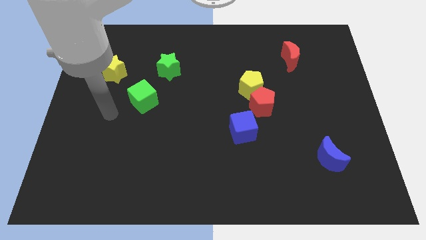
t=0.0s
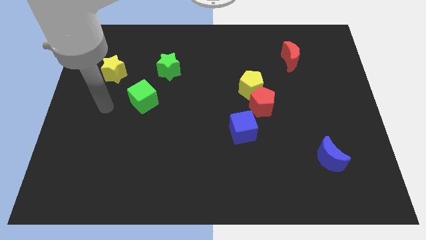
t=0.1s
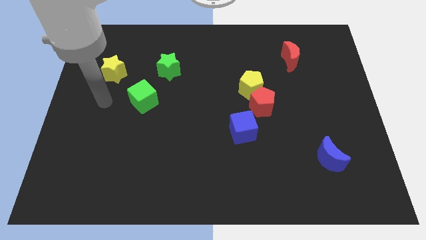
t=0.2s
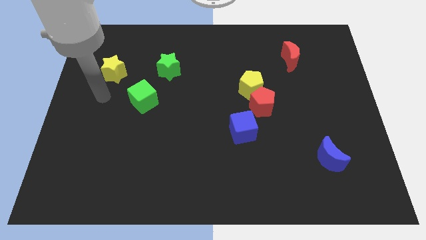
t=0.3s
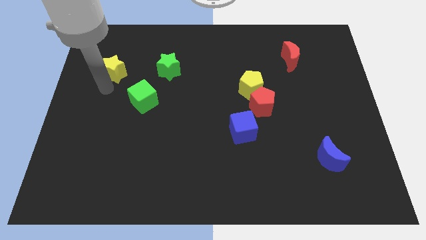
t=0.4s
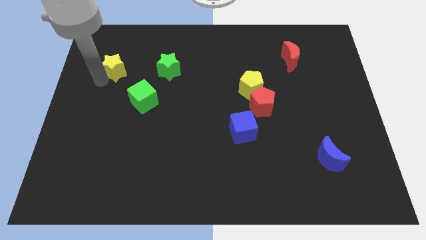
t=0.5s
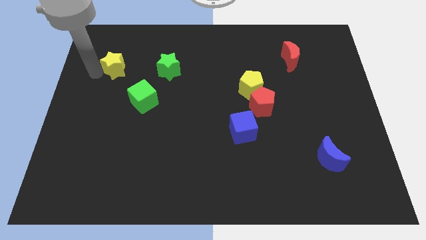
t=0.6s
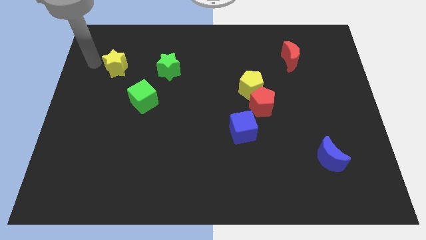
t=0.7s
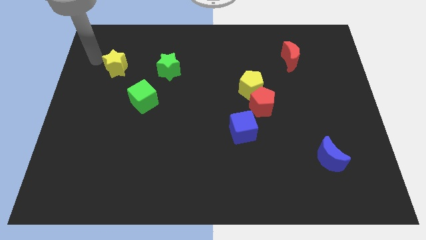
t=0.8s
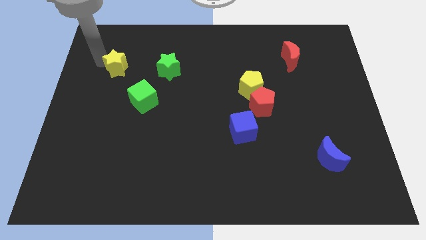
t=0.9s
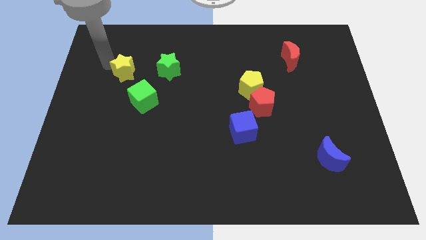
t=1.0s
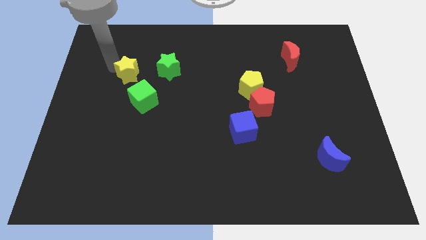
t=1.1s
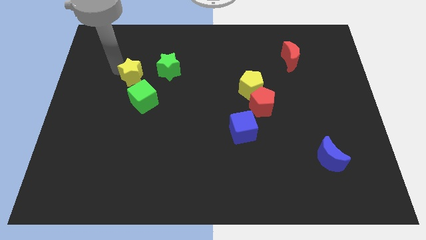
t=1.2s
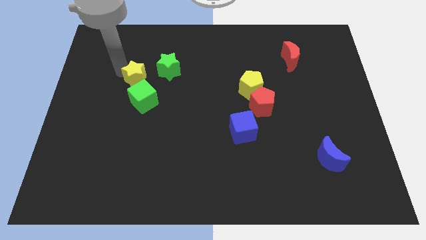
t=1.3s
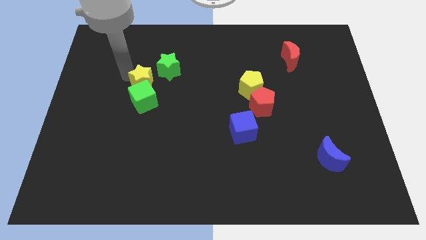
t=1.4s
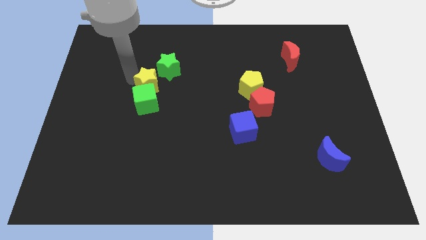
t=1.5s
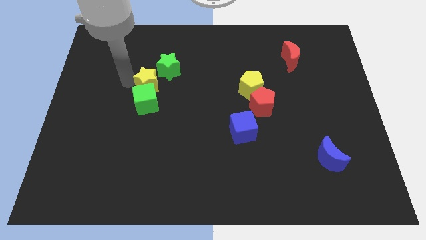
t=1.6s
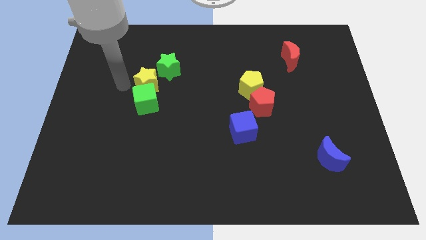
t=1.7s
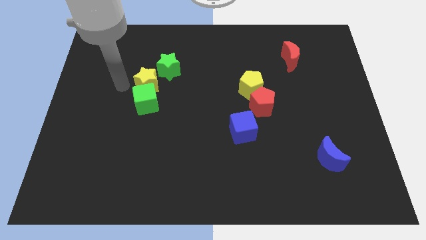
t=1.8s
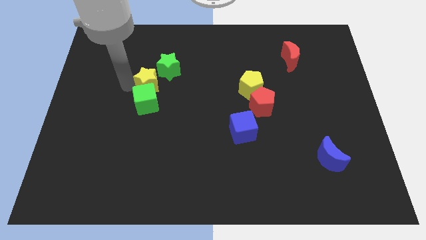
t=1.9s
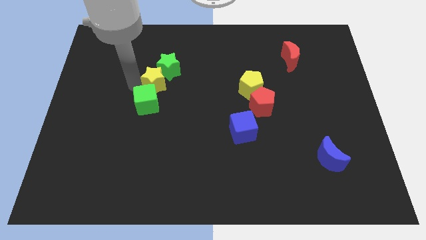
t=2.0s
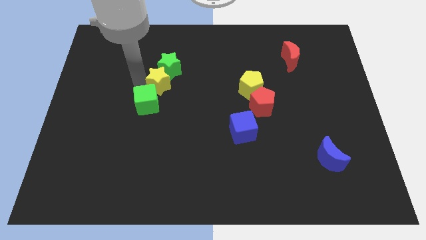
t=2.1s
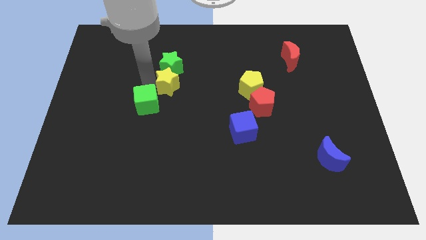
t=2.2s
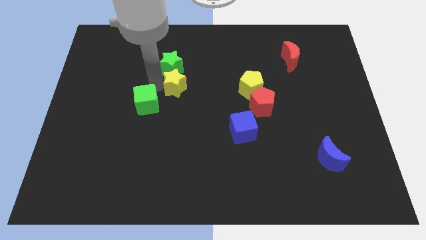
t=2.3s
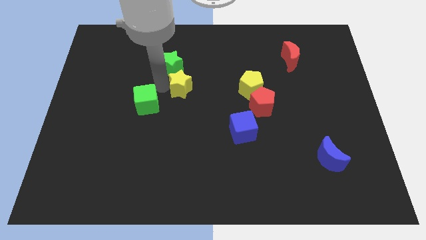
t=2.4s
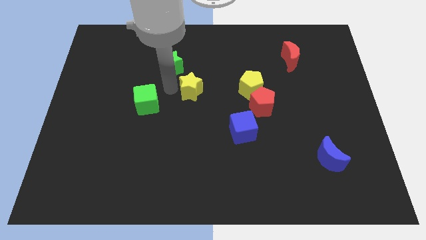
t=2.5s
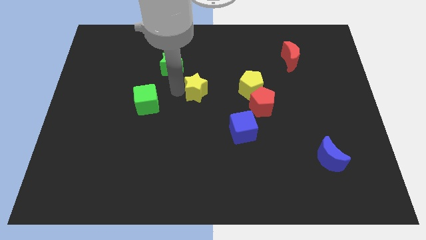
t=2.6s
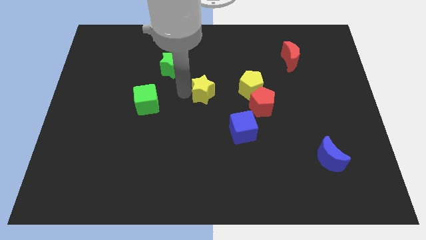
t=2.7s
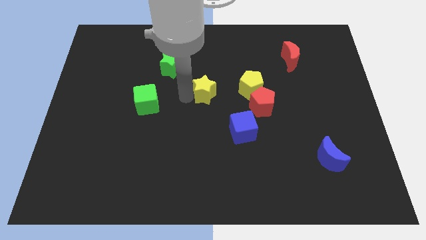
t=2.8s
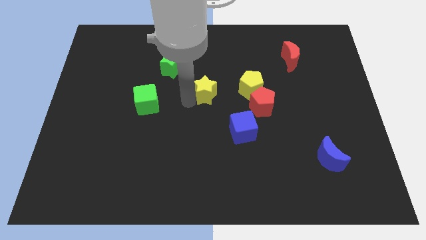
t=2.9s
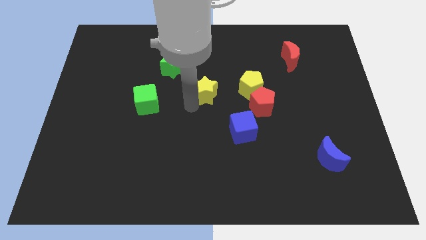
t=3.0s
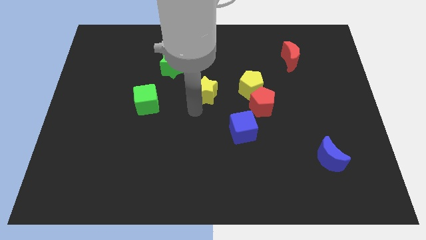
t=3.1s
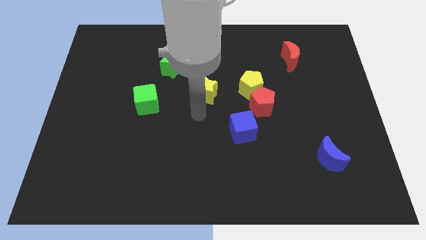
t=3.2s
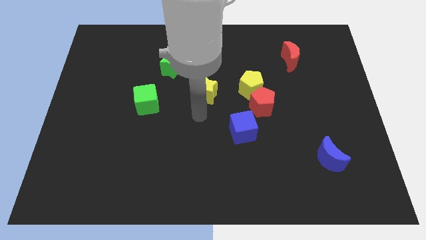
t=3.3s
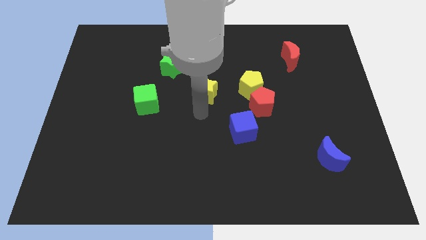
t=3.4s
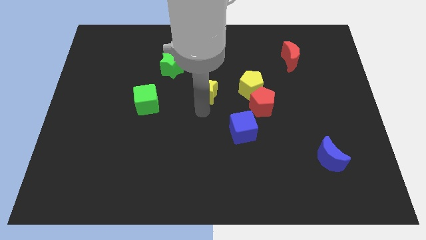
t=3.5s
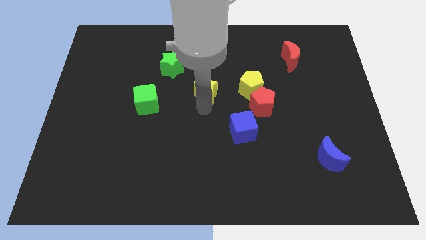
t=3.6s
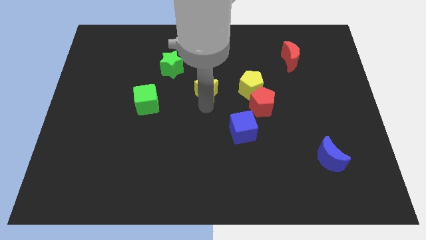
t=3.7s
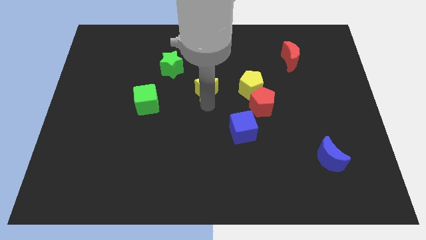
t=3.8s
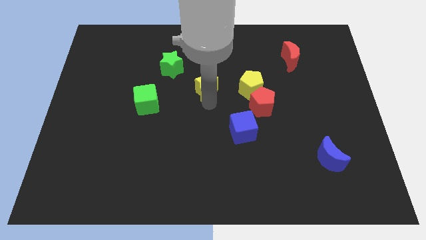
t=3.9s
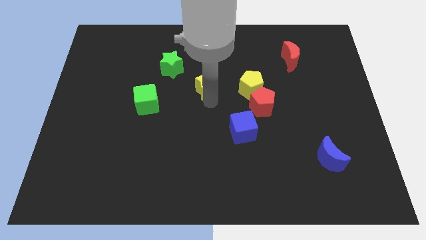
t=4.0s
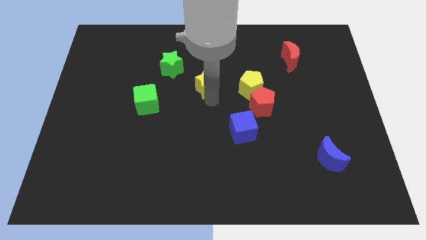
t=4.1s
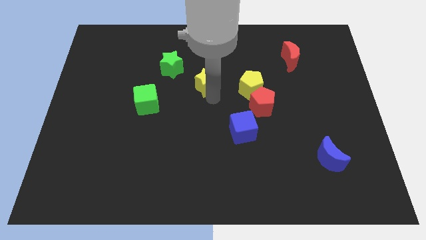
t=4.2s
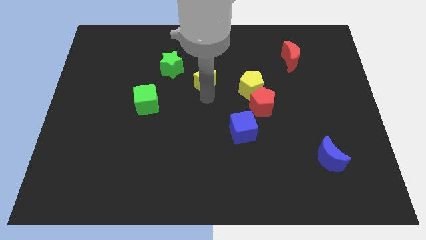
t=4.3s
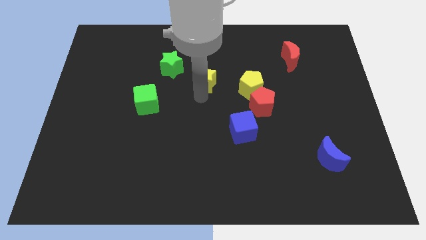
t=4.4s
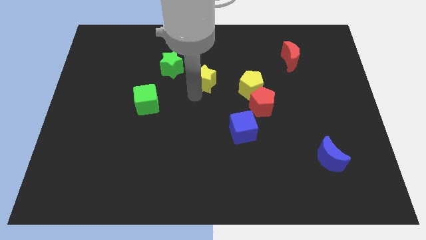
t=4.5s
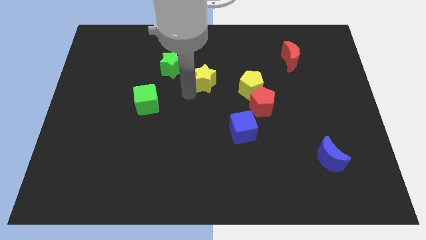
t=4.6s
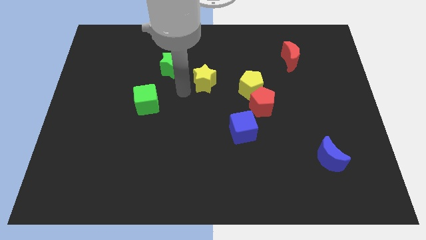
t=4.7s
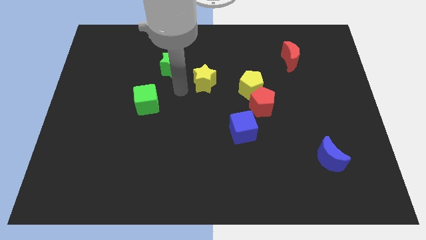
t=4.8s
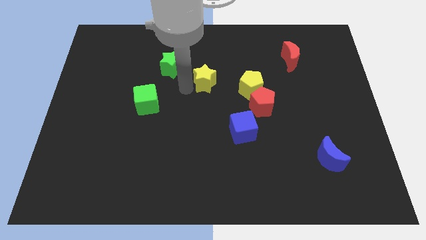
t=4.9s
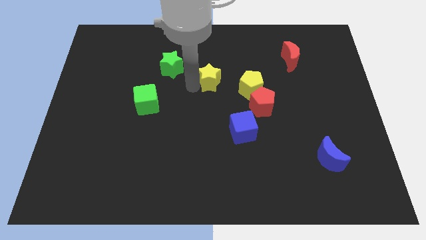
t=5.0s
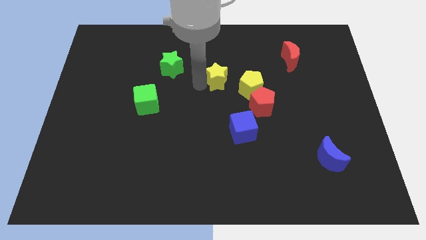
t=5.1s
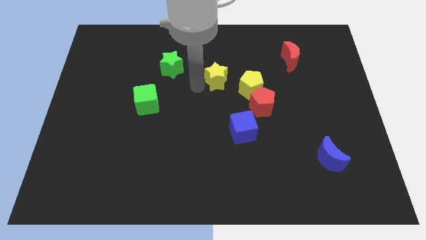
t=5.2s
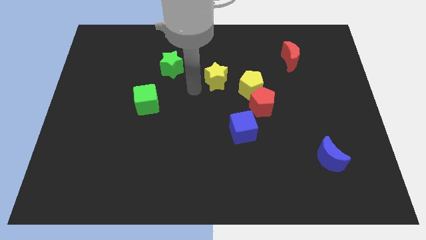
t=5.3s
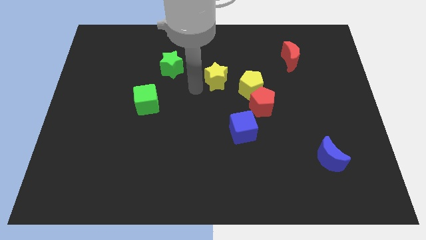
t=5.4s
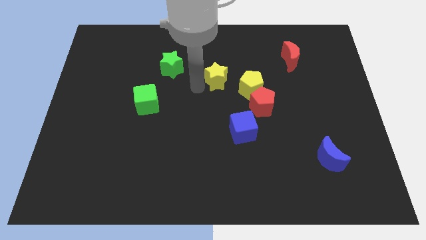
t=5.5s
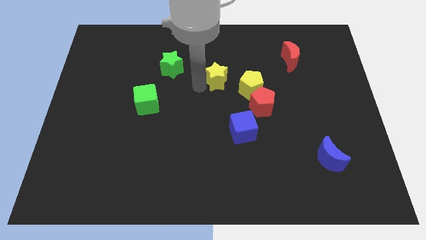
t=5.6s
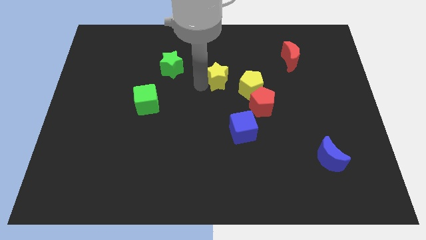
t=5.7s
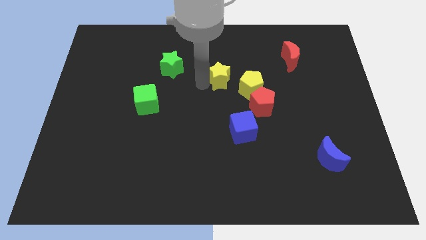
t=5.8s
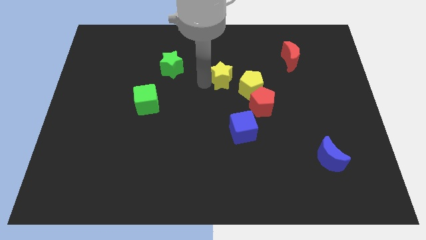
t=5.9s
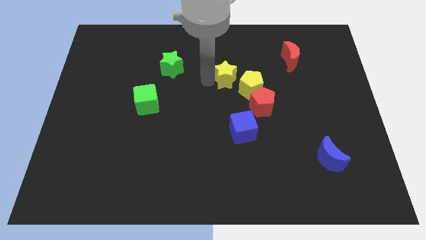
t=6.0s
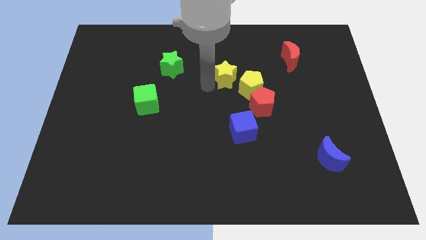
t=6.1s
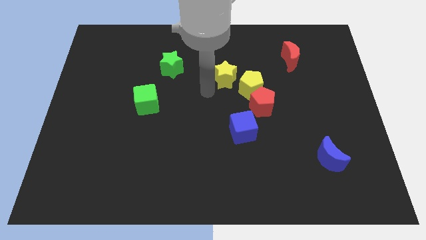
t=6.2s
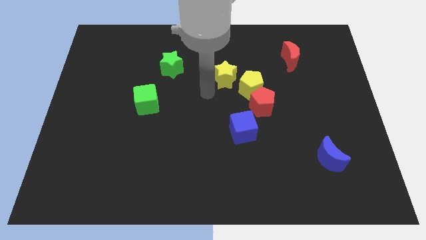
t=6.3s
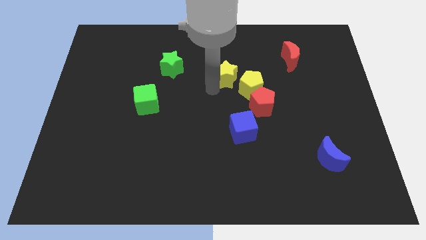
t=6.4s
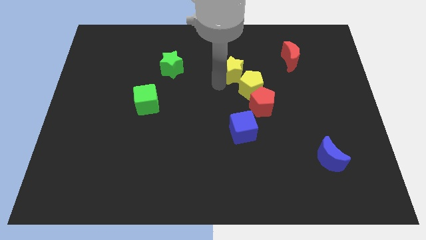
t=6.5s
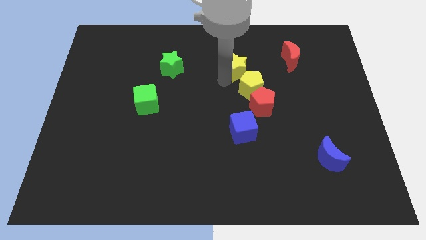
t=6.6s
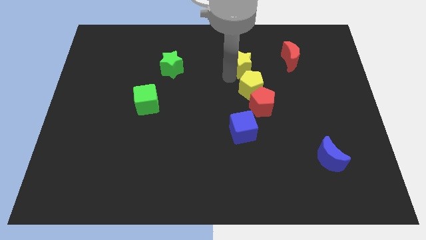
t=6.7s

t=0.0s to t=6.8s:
move the yellow star to the left of the red moon

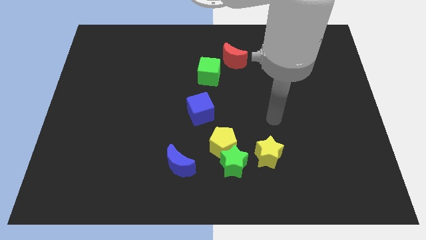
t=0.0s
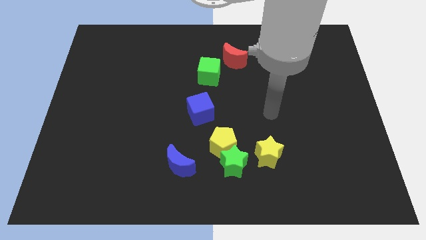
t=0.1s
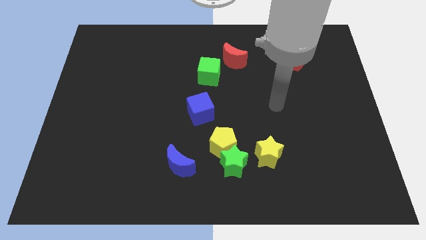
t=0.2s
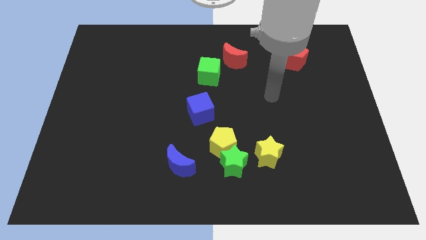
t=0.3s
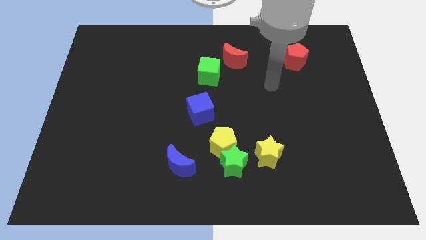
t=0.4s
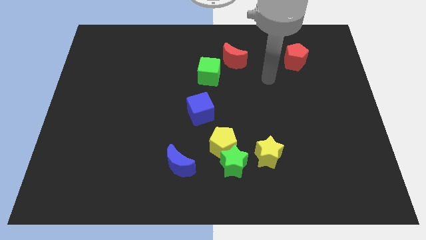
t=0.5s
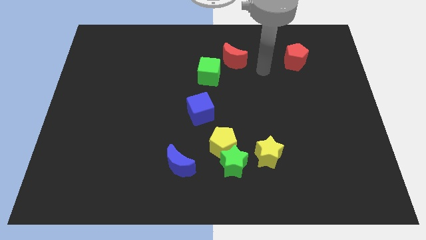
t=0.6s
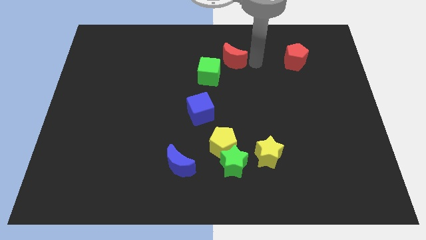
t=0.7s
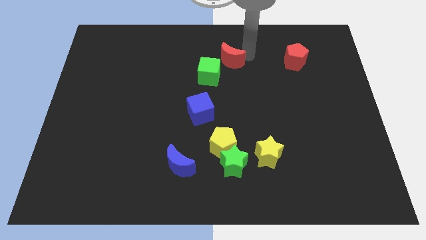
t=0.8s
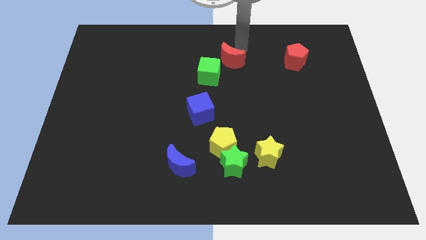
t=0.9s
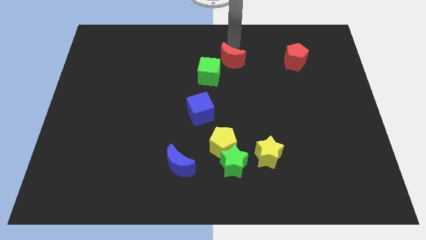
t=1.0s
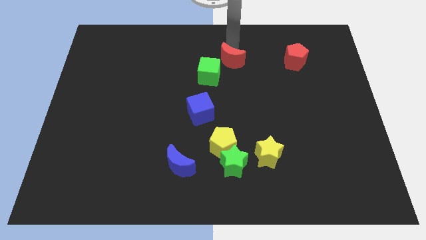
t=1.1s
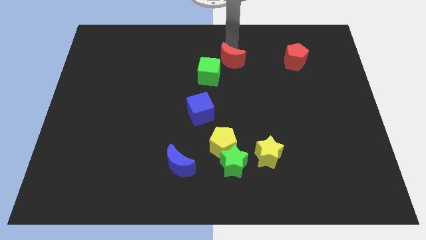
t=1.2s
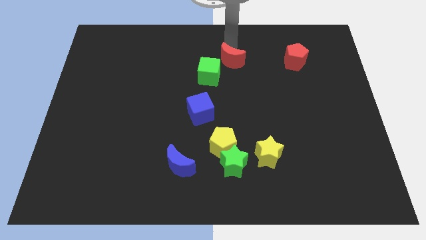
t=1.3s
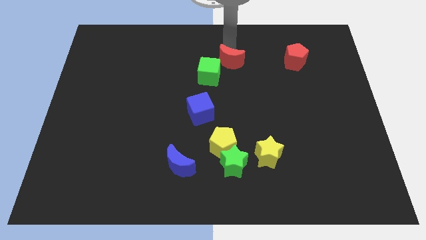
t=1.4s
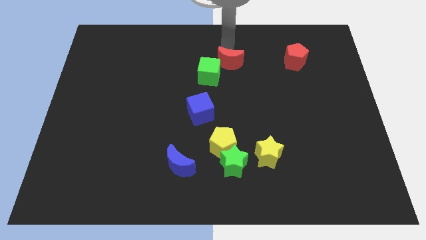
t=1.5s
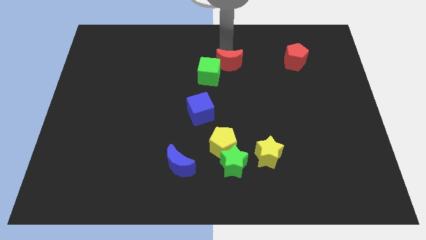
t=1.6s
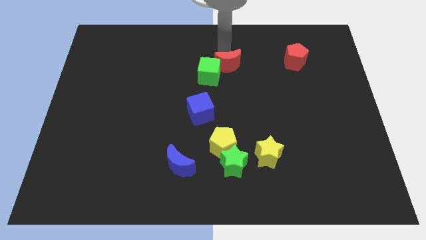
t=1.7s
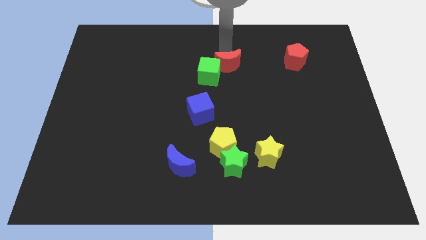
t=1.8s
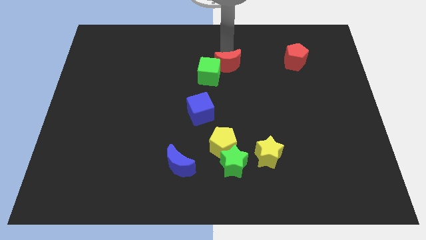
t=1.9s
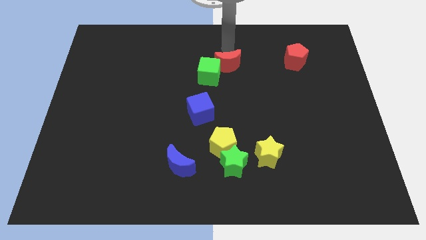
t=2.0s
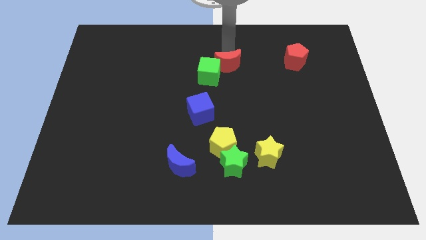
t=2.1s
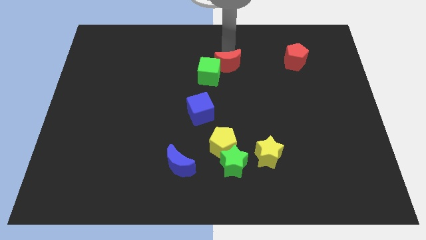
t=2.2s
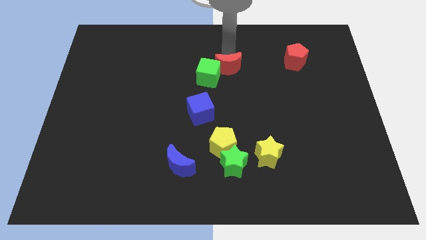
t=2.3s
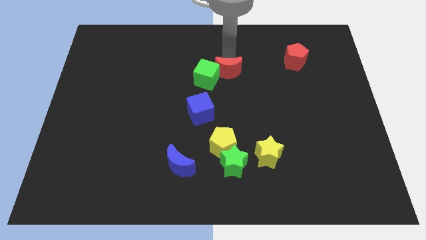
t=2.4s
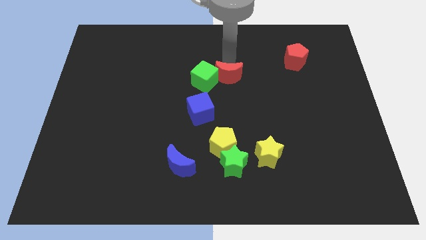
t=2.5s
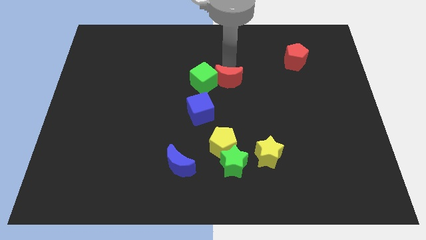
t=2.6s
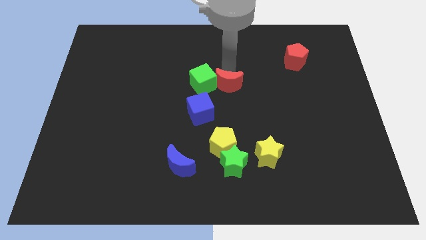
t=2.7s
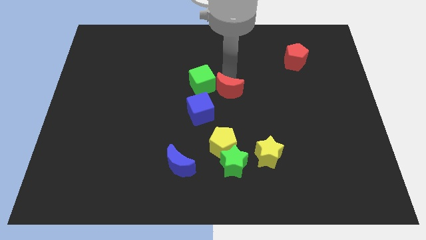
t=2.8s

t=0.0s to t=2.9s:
put the red moon to the top of the yellow pentagon
